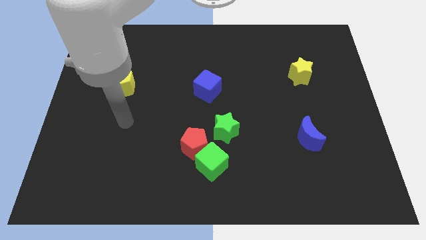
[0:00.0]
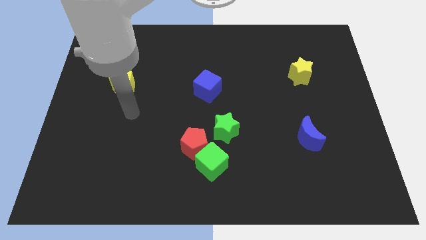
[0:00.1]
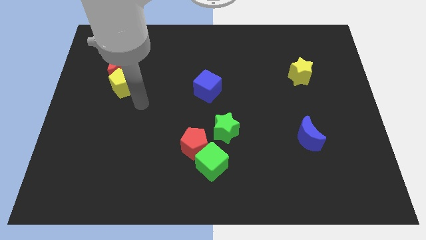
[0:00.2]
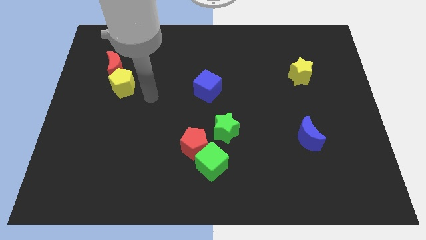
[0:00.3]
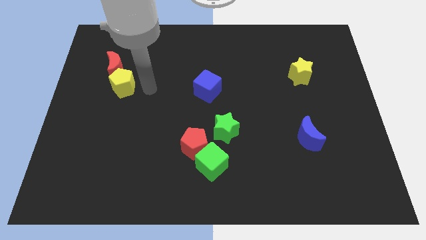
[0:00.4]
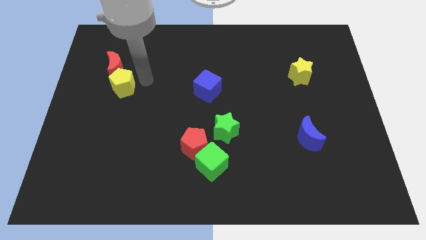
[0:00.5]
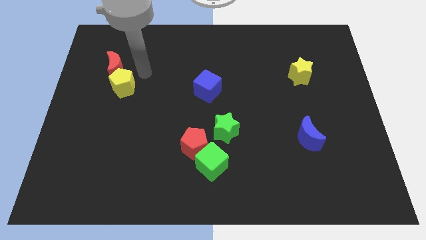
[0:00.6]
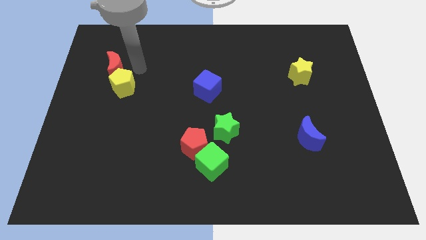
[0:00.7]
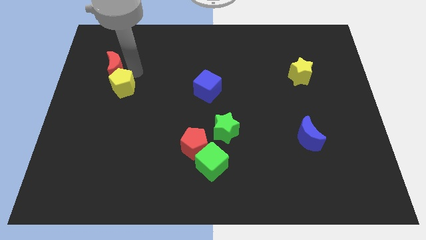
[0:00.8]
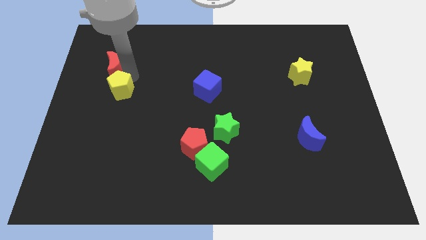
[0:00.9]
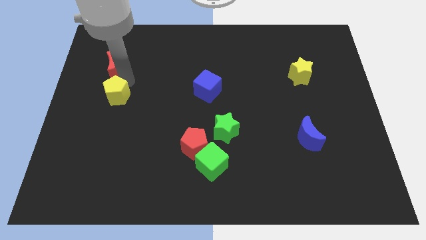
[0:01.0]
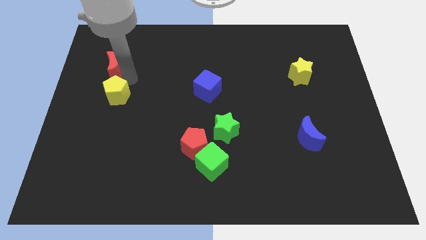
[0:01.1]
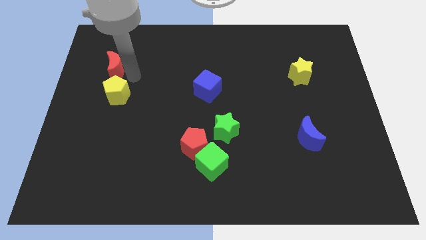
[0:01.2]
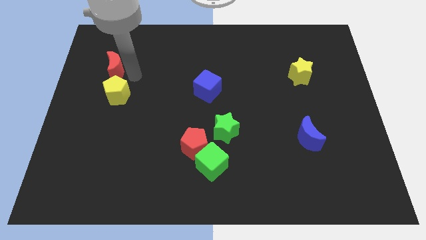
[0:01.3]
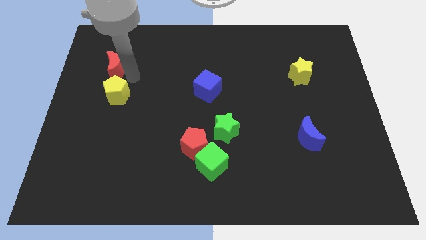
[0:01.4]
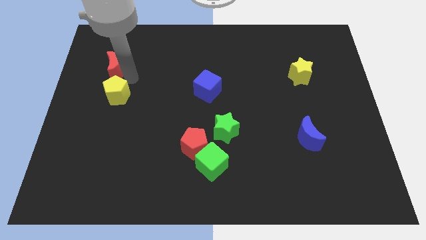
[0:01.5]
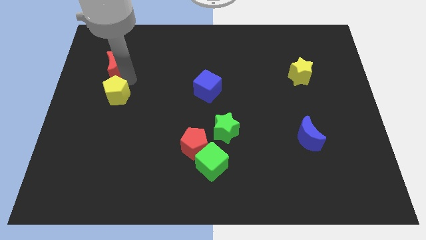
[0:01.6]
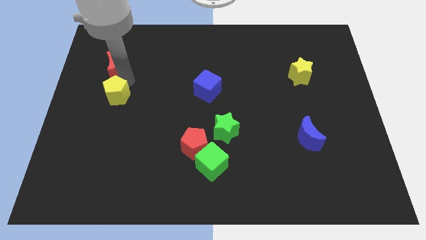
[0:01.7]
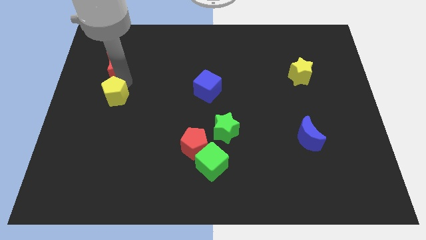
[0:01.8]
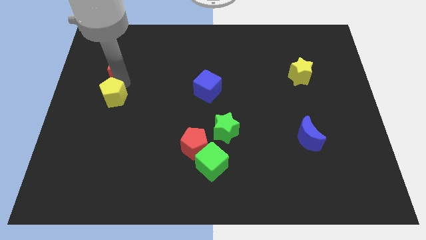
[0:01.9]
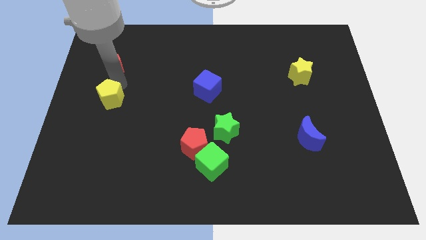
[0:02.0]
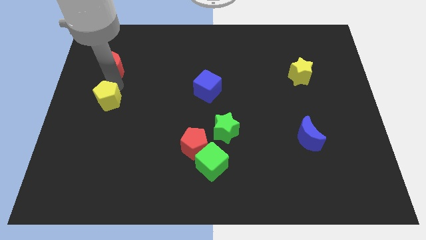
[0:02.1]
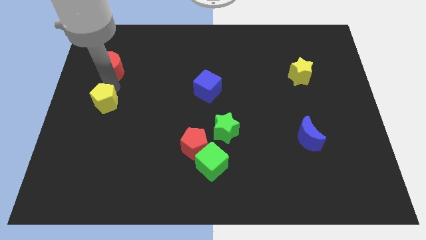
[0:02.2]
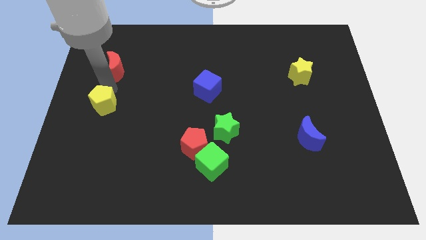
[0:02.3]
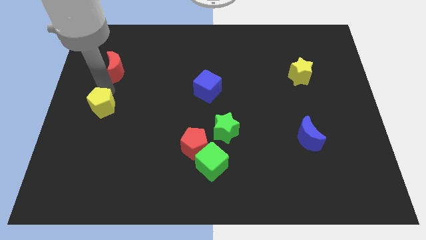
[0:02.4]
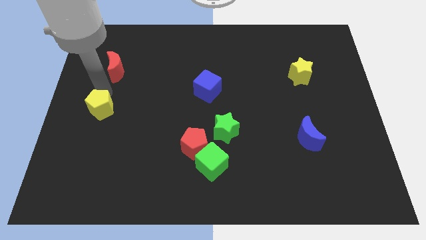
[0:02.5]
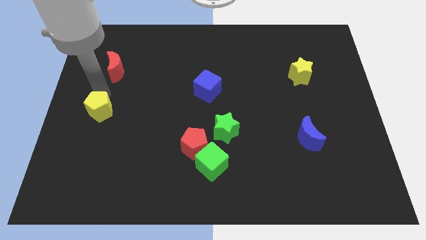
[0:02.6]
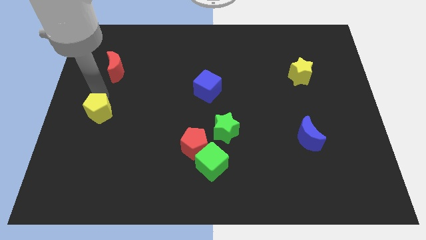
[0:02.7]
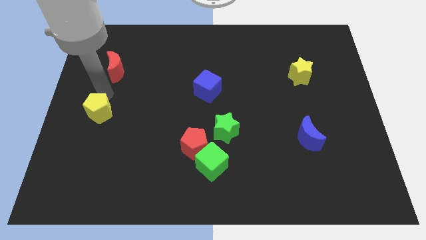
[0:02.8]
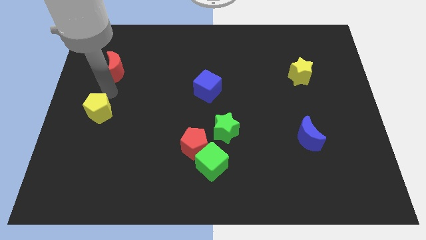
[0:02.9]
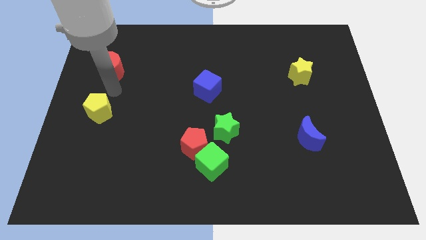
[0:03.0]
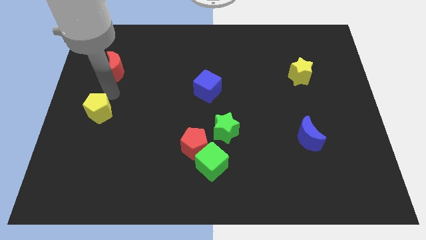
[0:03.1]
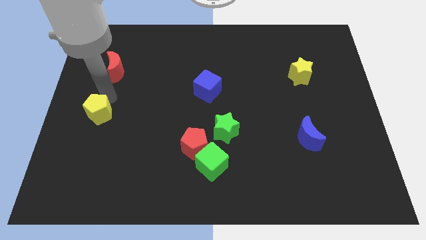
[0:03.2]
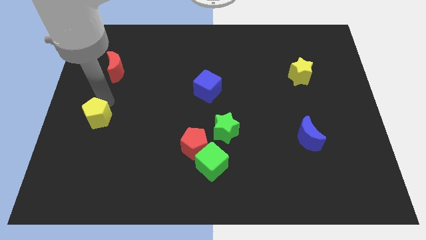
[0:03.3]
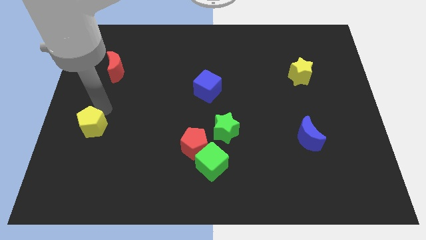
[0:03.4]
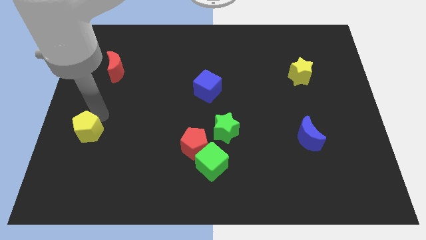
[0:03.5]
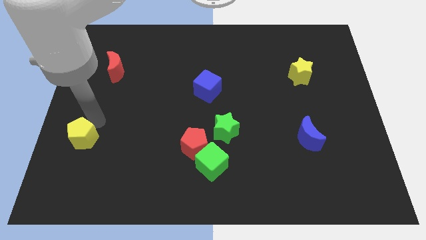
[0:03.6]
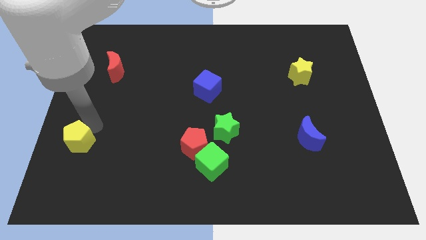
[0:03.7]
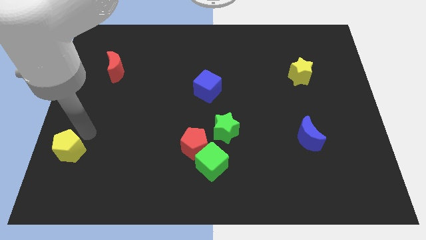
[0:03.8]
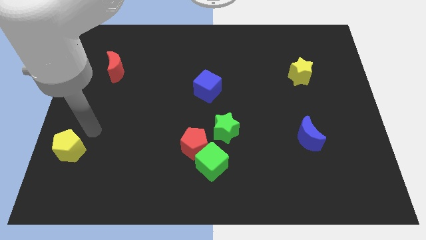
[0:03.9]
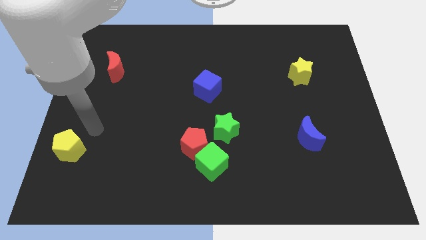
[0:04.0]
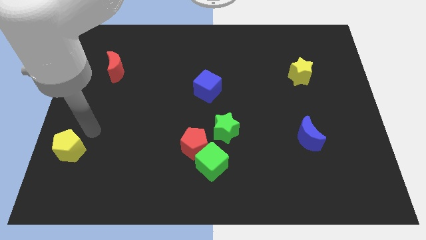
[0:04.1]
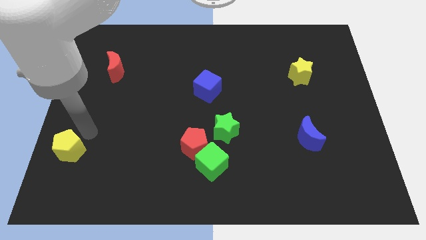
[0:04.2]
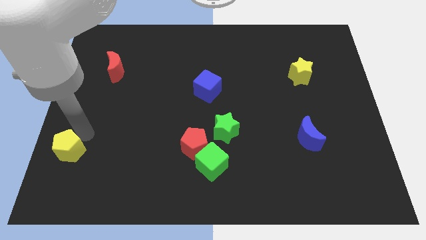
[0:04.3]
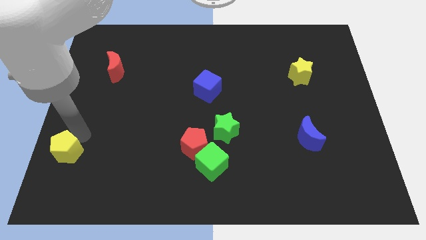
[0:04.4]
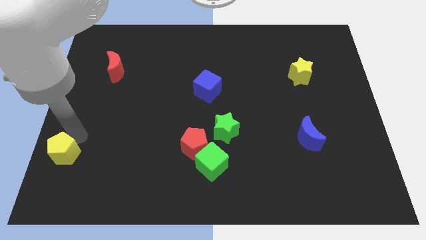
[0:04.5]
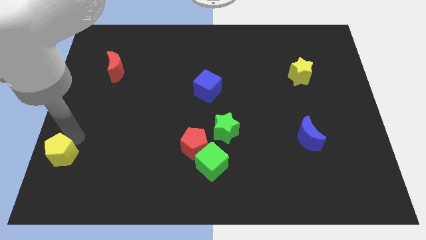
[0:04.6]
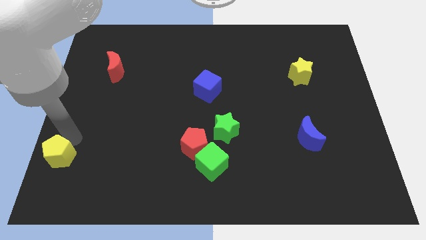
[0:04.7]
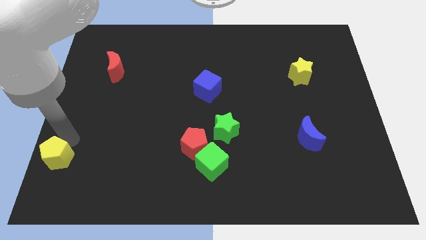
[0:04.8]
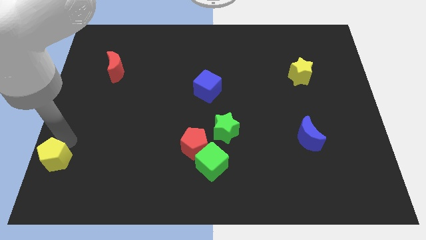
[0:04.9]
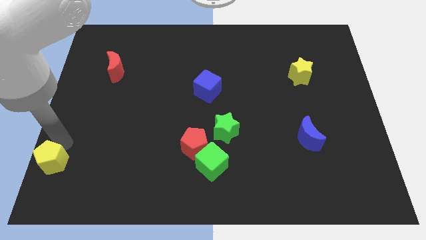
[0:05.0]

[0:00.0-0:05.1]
put the yellow pentagon to the bottom left corner

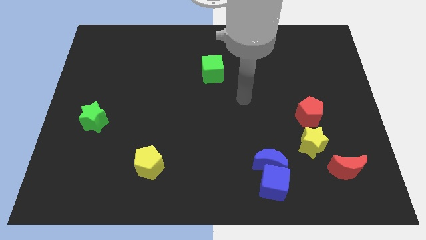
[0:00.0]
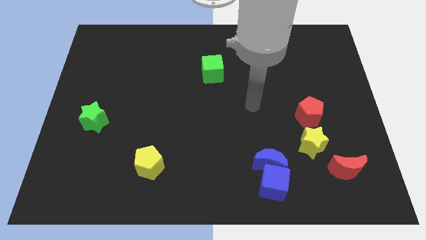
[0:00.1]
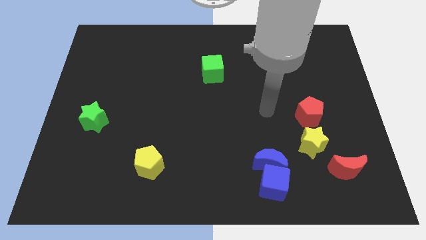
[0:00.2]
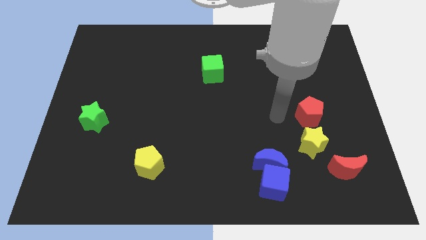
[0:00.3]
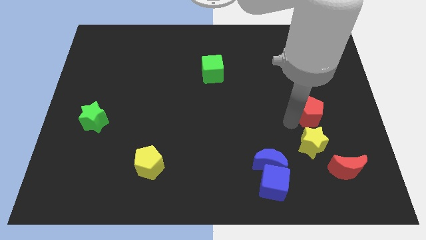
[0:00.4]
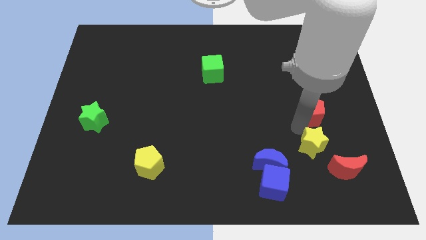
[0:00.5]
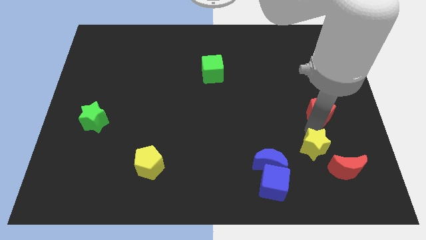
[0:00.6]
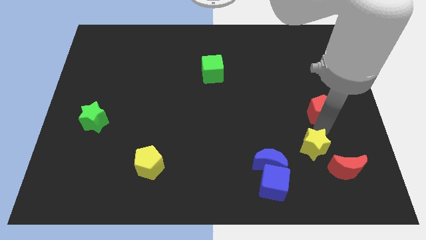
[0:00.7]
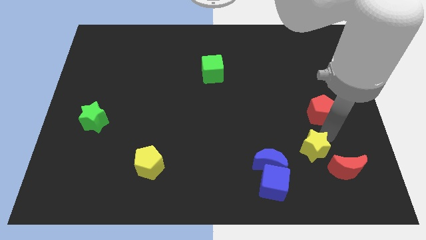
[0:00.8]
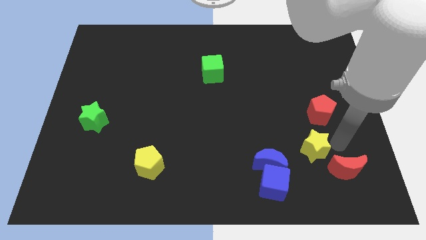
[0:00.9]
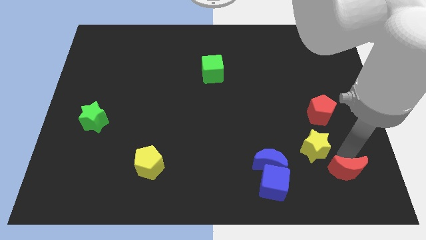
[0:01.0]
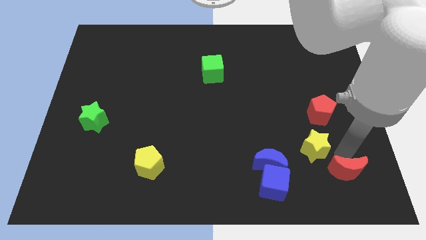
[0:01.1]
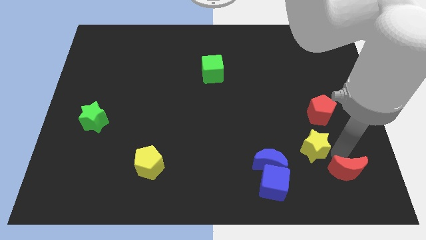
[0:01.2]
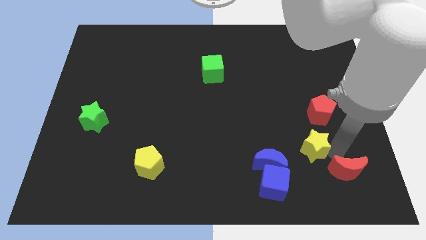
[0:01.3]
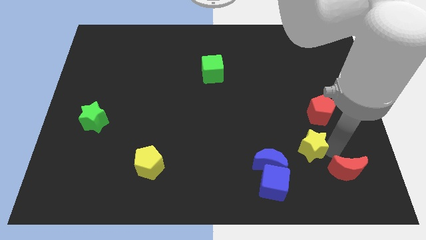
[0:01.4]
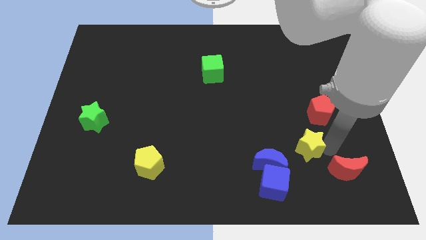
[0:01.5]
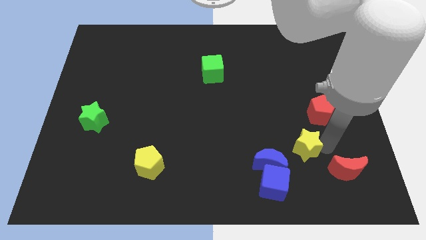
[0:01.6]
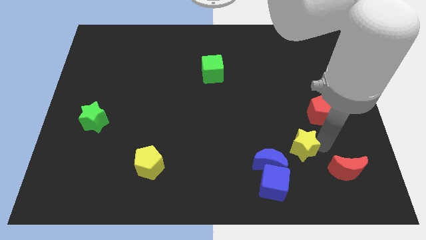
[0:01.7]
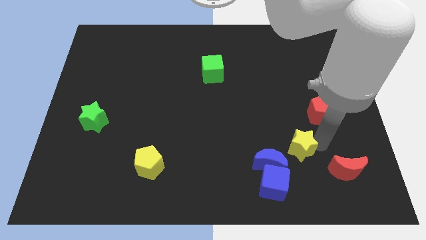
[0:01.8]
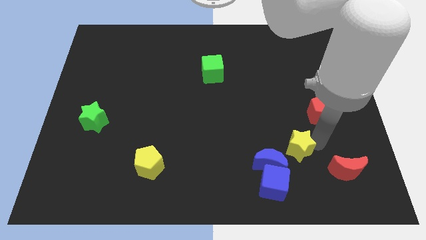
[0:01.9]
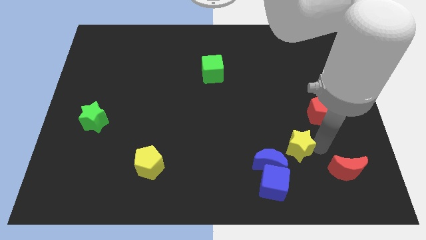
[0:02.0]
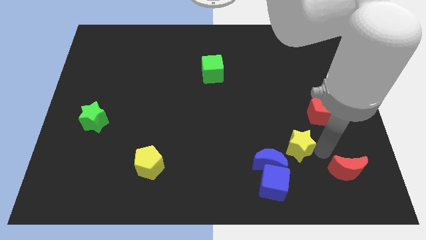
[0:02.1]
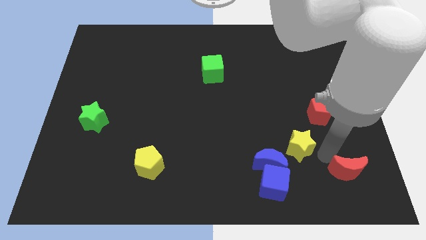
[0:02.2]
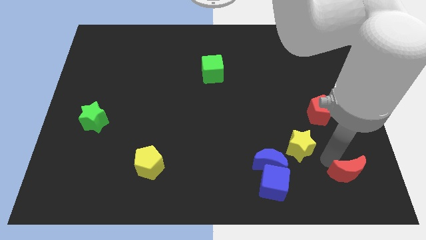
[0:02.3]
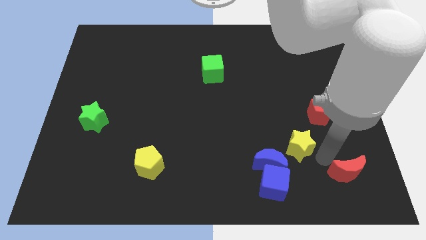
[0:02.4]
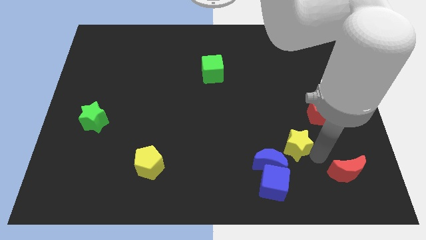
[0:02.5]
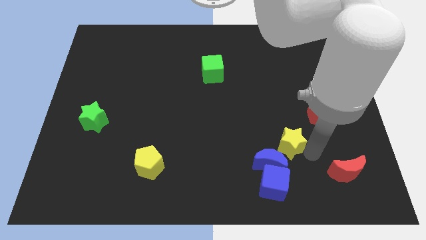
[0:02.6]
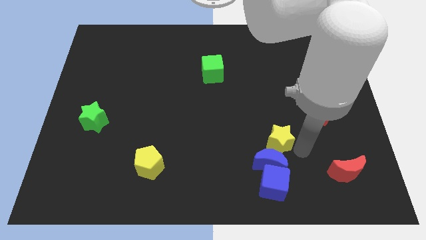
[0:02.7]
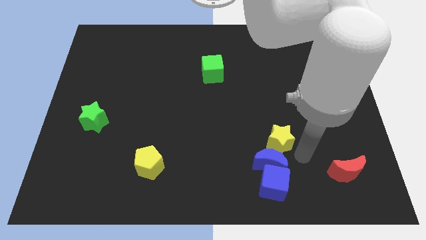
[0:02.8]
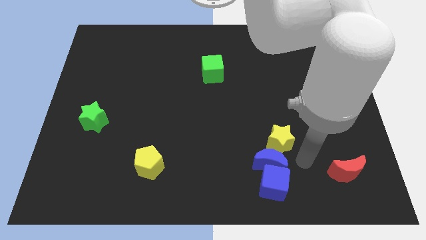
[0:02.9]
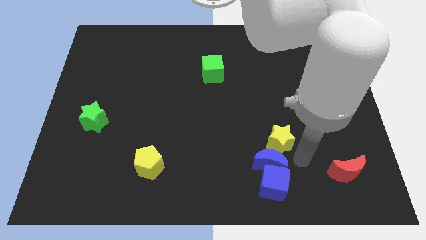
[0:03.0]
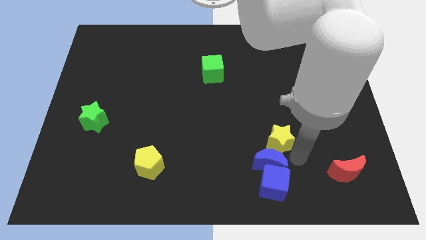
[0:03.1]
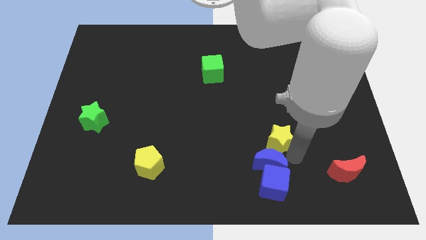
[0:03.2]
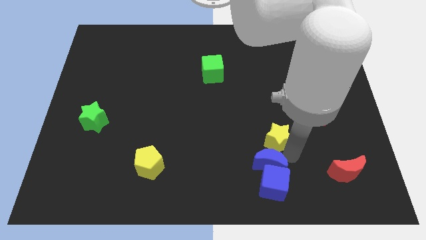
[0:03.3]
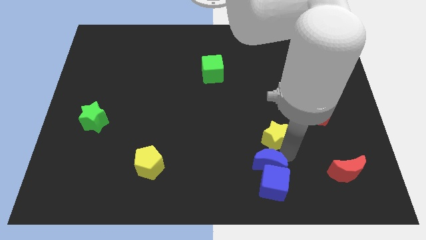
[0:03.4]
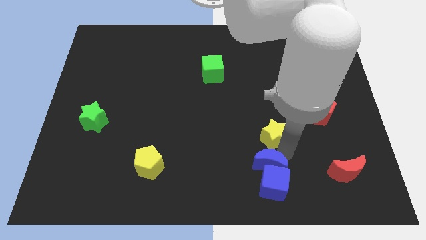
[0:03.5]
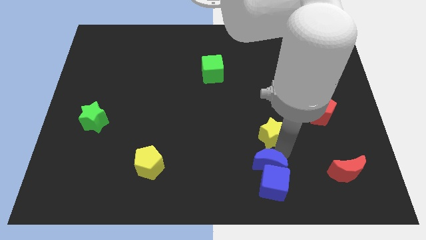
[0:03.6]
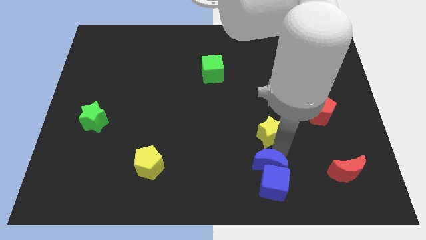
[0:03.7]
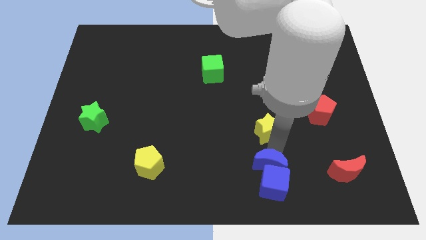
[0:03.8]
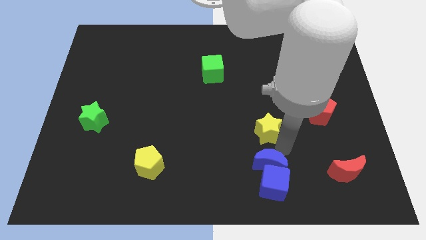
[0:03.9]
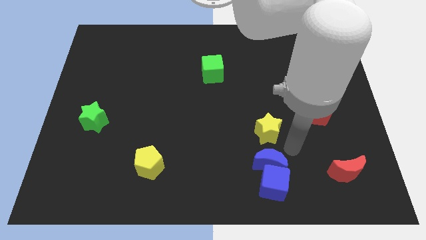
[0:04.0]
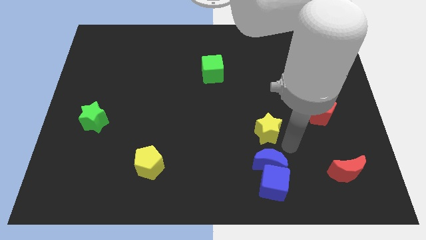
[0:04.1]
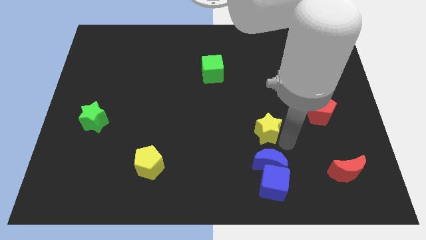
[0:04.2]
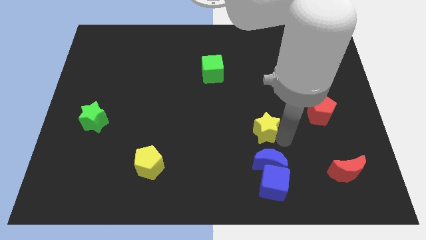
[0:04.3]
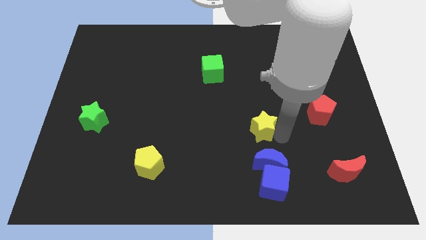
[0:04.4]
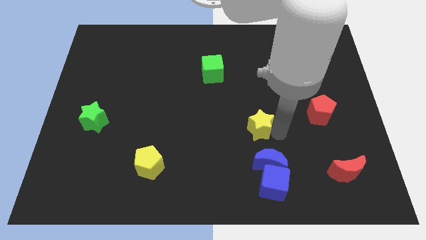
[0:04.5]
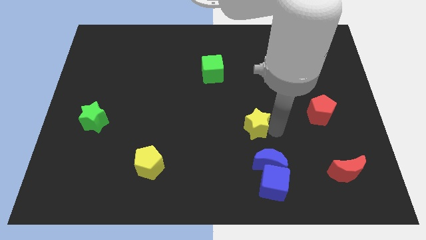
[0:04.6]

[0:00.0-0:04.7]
push the yellow star to the center of the board
